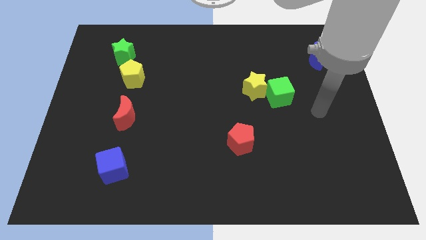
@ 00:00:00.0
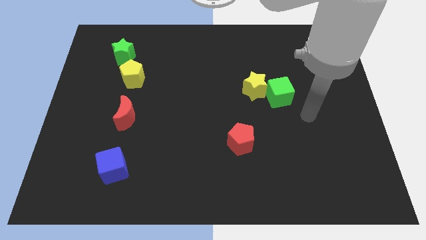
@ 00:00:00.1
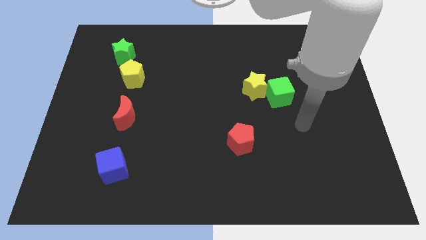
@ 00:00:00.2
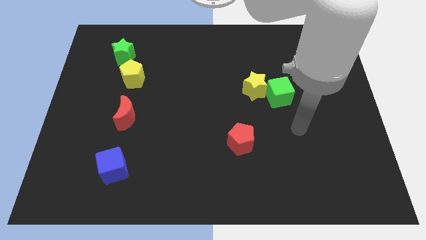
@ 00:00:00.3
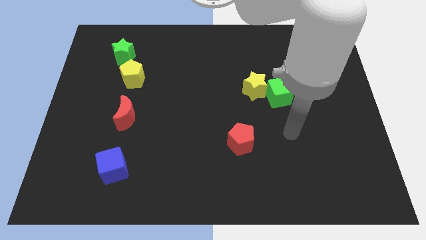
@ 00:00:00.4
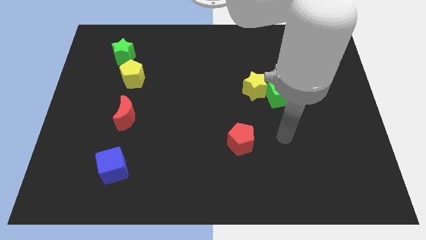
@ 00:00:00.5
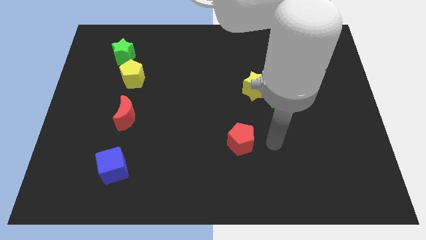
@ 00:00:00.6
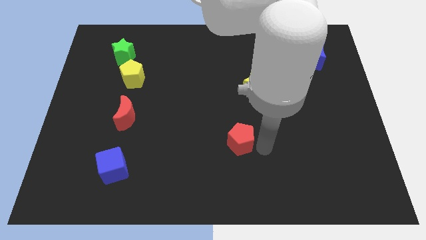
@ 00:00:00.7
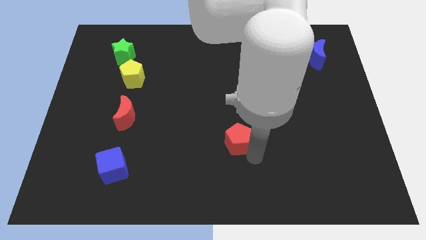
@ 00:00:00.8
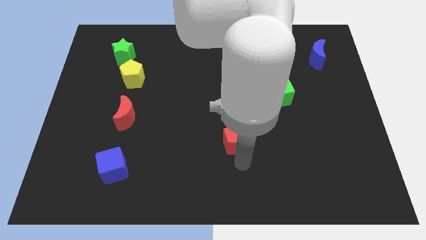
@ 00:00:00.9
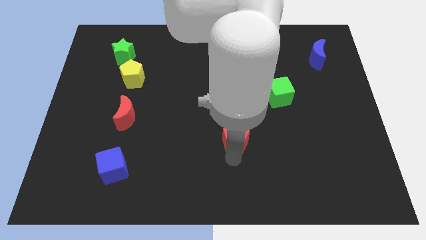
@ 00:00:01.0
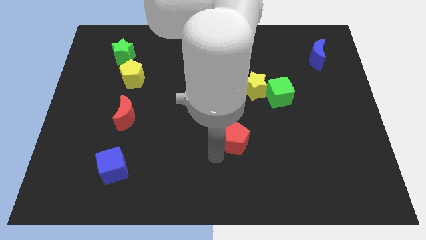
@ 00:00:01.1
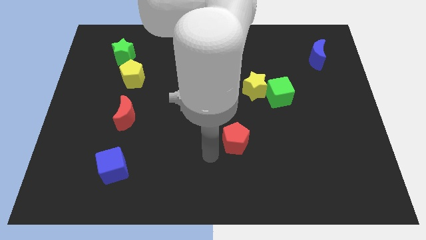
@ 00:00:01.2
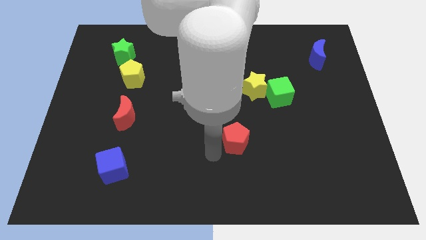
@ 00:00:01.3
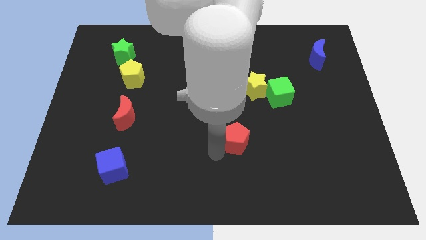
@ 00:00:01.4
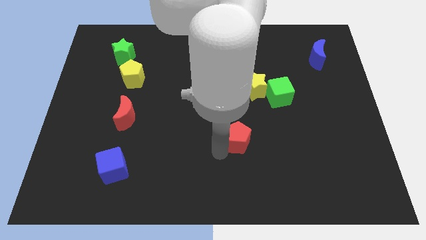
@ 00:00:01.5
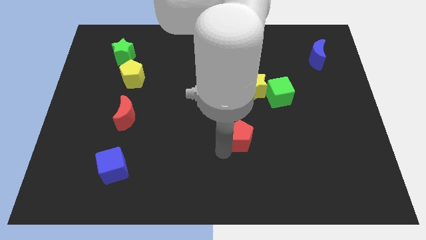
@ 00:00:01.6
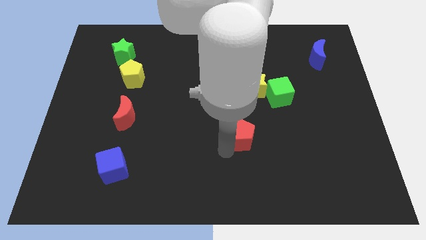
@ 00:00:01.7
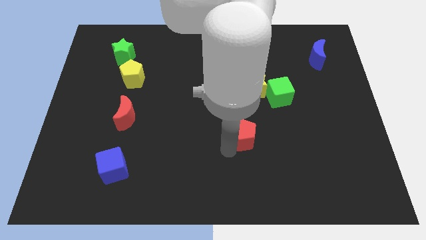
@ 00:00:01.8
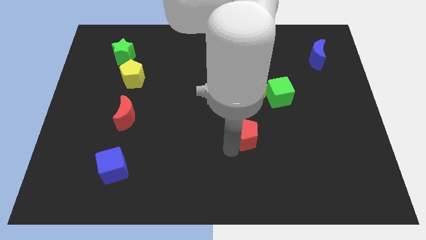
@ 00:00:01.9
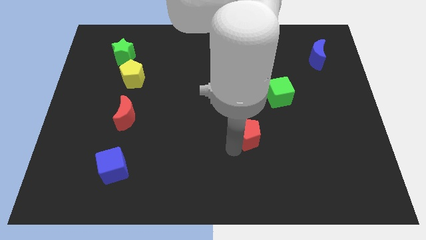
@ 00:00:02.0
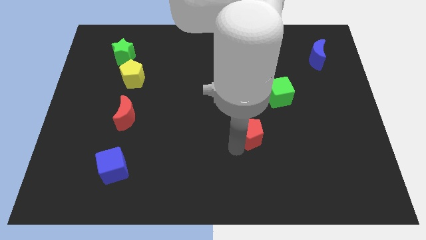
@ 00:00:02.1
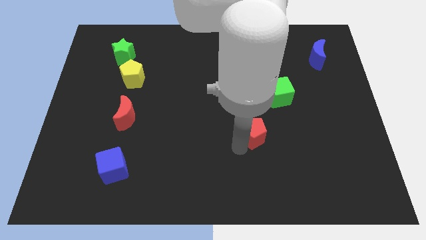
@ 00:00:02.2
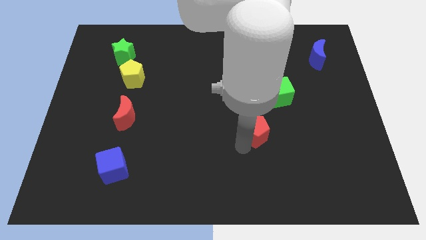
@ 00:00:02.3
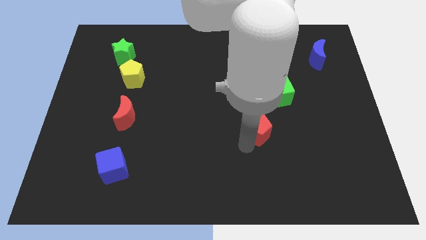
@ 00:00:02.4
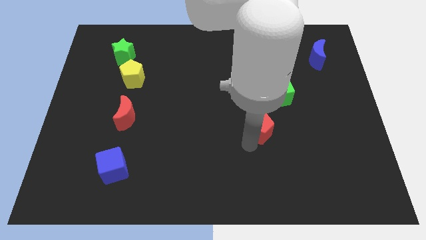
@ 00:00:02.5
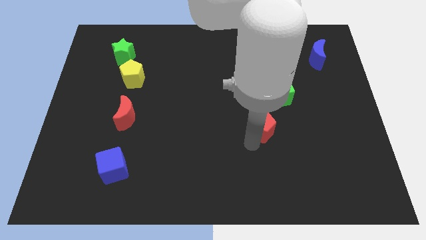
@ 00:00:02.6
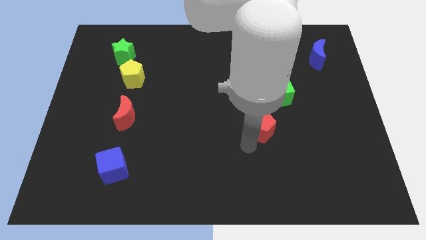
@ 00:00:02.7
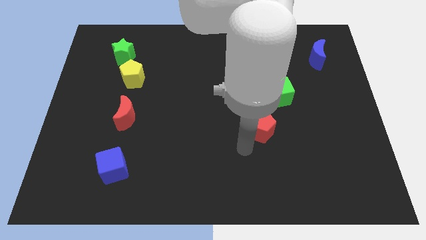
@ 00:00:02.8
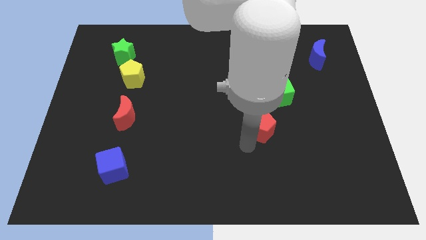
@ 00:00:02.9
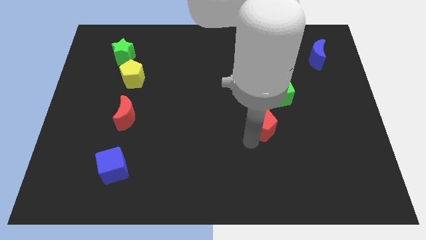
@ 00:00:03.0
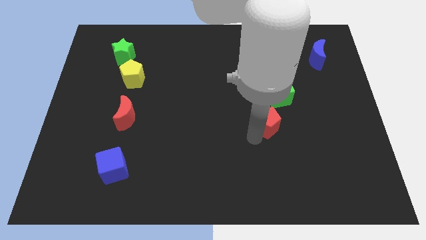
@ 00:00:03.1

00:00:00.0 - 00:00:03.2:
move the red pentagon a bit diagonally upwards and to the right

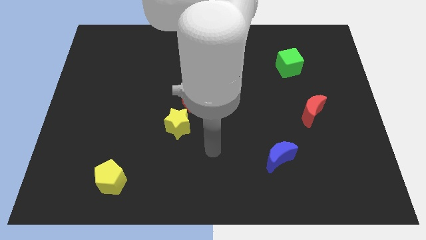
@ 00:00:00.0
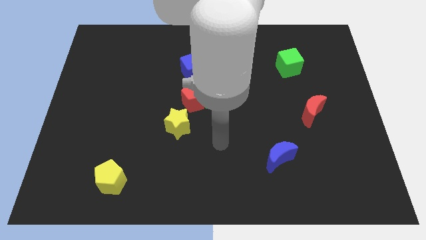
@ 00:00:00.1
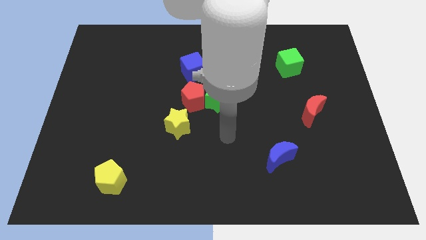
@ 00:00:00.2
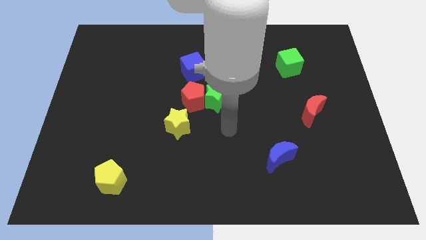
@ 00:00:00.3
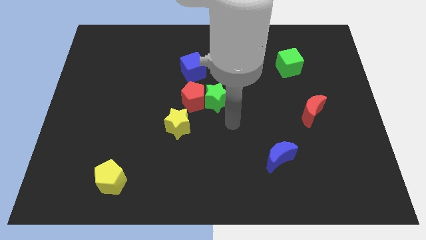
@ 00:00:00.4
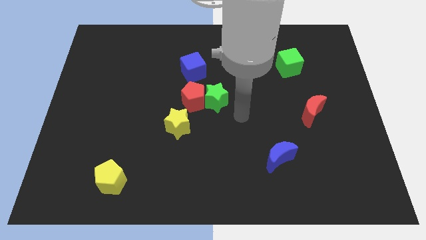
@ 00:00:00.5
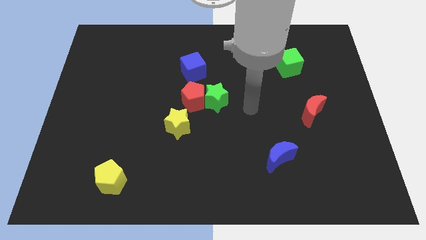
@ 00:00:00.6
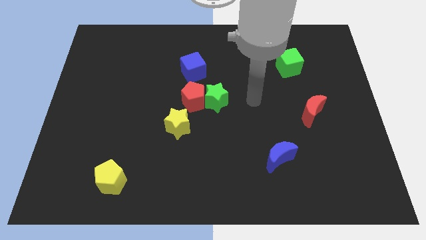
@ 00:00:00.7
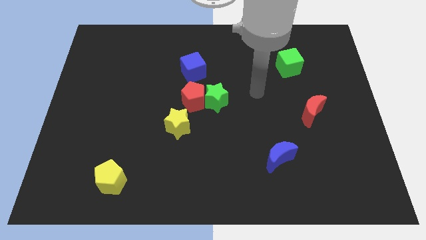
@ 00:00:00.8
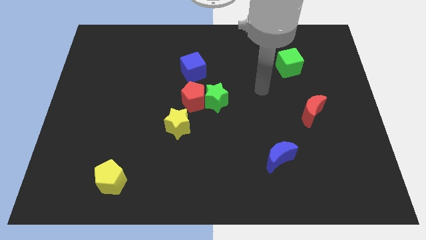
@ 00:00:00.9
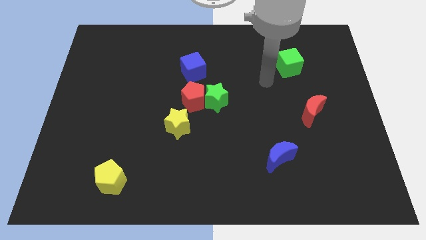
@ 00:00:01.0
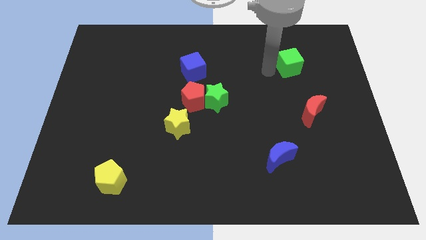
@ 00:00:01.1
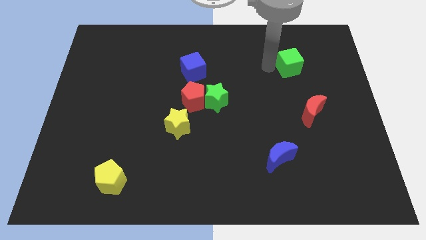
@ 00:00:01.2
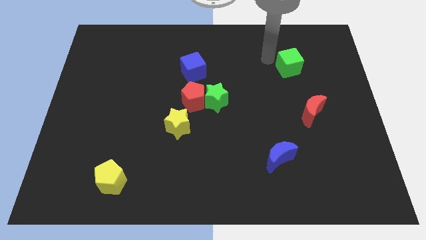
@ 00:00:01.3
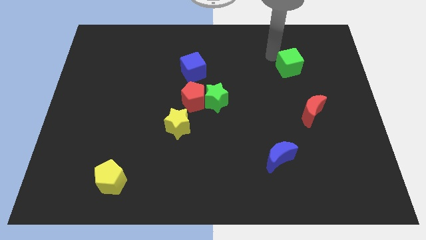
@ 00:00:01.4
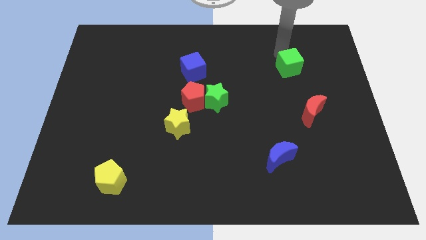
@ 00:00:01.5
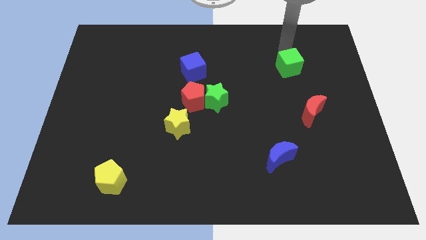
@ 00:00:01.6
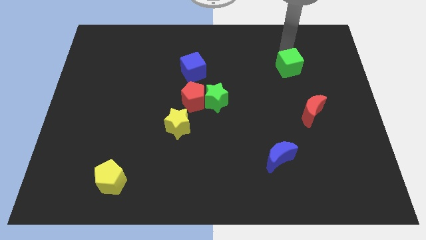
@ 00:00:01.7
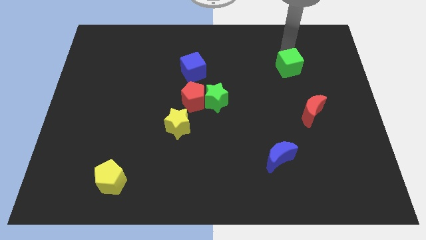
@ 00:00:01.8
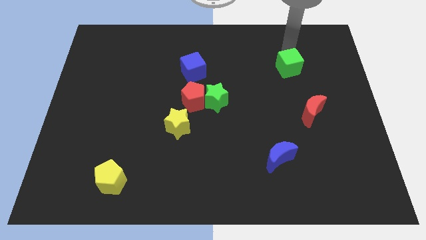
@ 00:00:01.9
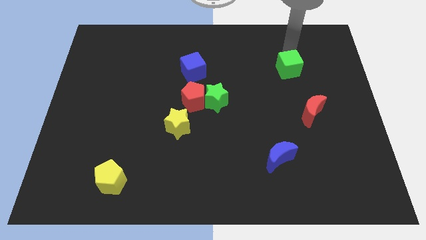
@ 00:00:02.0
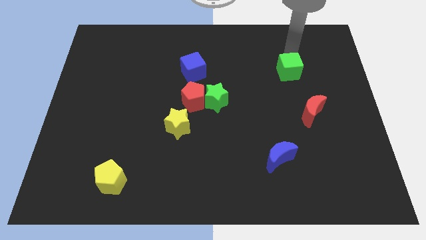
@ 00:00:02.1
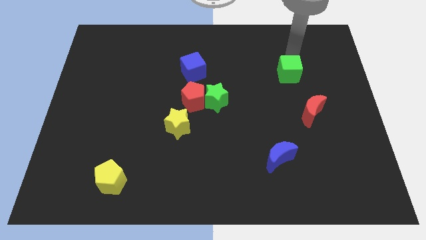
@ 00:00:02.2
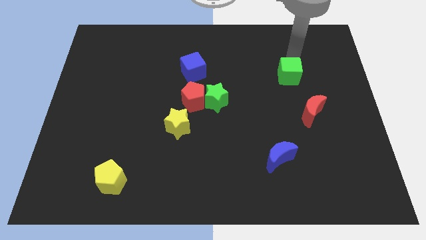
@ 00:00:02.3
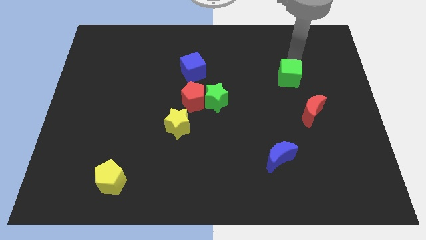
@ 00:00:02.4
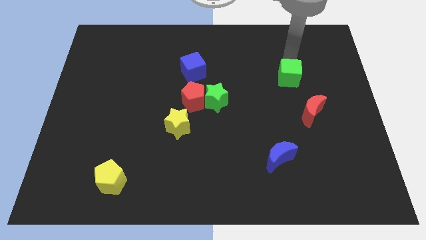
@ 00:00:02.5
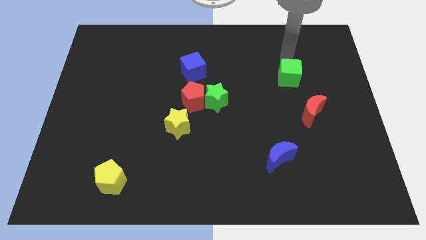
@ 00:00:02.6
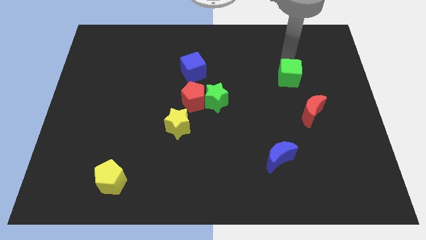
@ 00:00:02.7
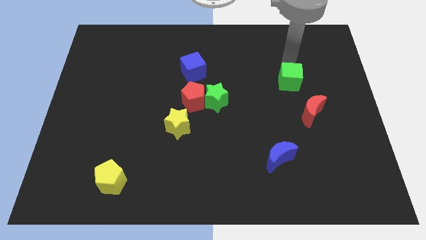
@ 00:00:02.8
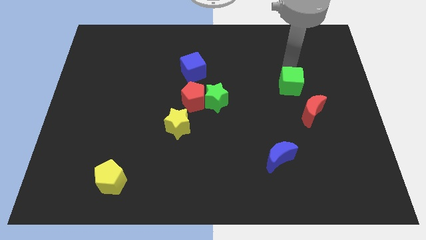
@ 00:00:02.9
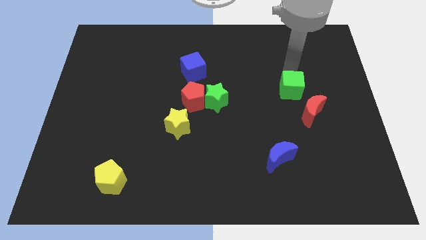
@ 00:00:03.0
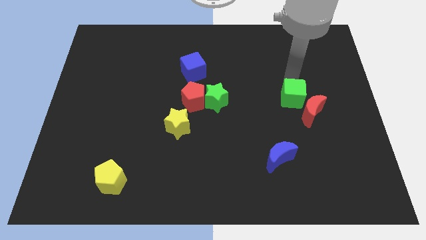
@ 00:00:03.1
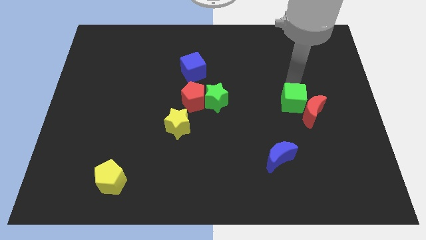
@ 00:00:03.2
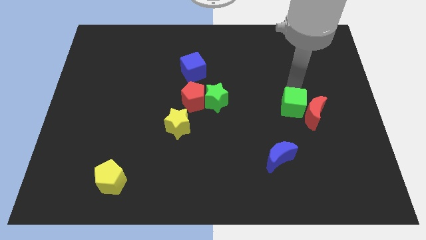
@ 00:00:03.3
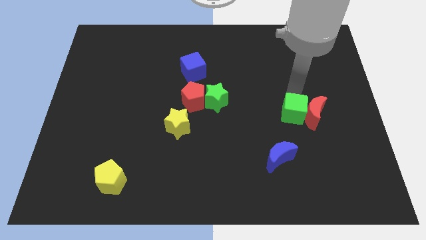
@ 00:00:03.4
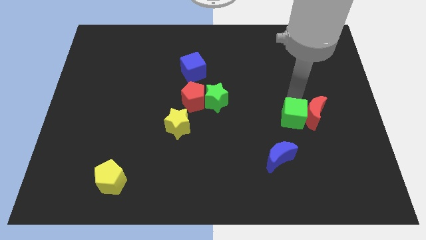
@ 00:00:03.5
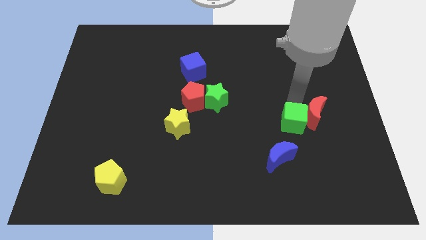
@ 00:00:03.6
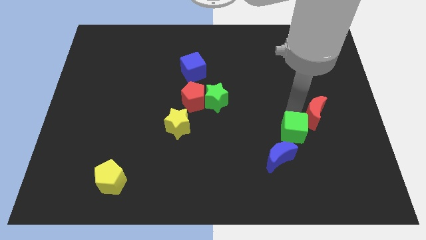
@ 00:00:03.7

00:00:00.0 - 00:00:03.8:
slide the green cube downwards

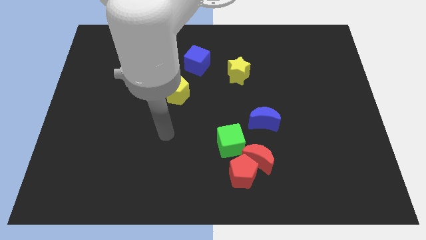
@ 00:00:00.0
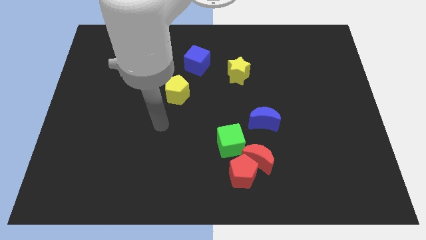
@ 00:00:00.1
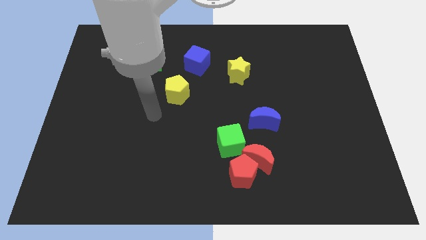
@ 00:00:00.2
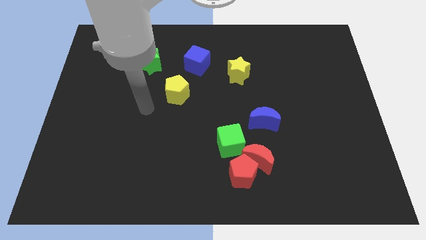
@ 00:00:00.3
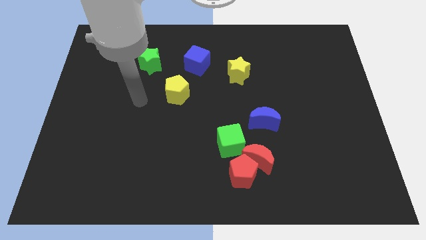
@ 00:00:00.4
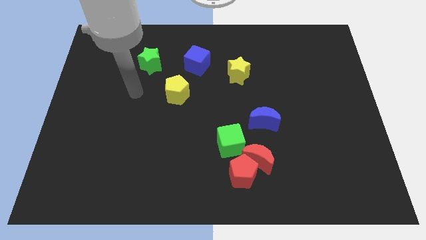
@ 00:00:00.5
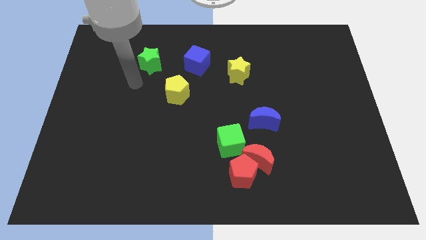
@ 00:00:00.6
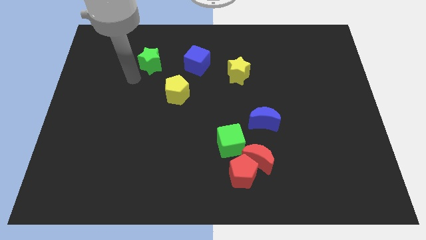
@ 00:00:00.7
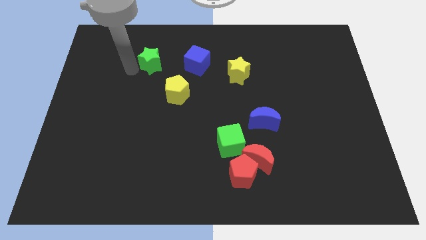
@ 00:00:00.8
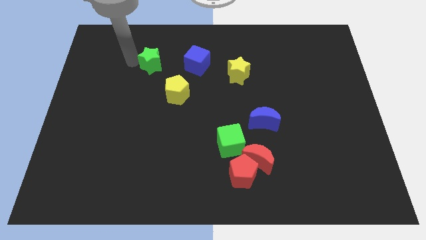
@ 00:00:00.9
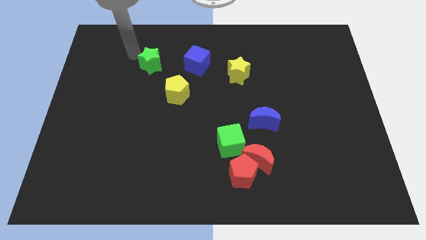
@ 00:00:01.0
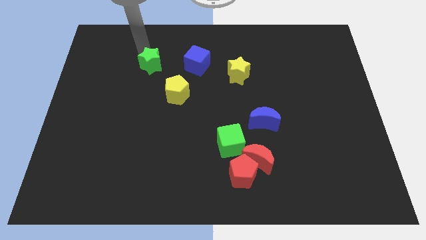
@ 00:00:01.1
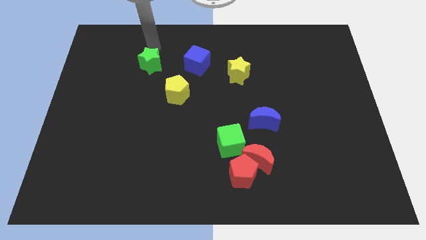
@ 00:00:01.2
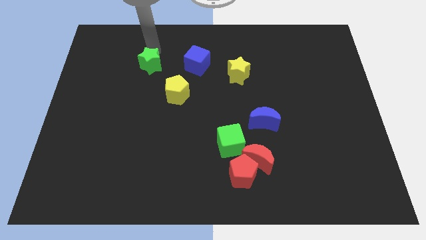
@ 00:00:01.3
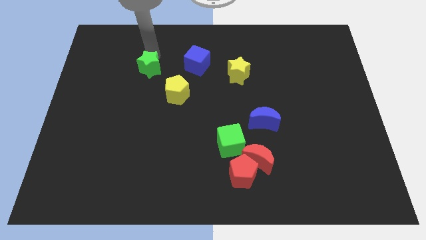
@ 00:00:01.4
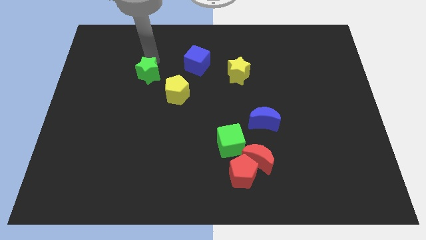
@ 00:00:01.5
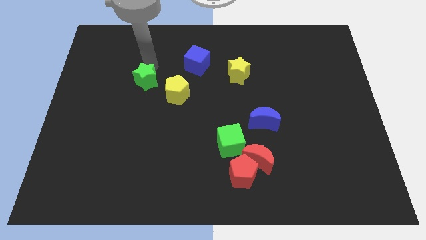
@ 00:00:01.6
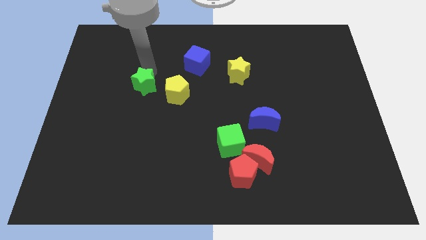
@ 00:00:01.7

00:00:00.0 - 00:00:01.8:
slightly push the green star downwards
